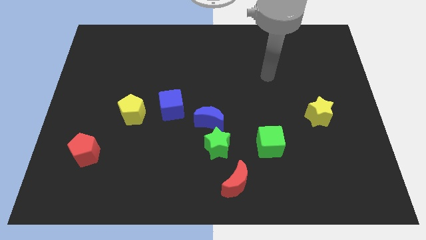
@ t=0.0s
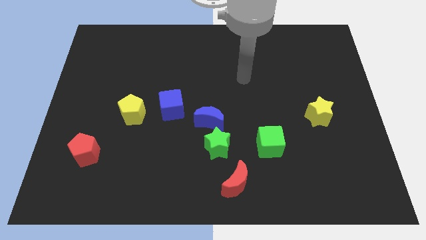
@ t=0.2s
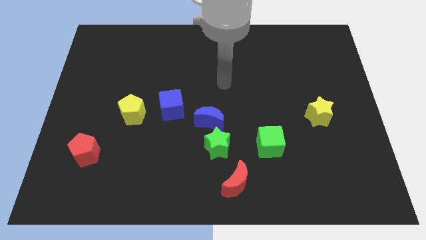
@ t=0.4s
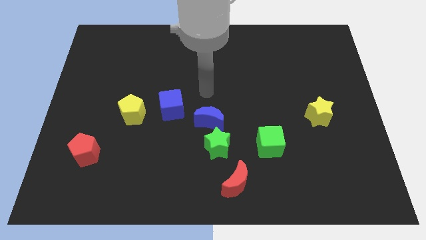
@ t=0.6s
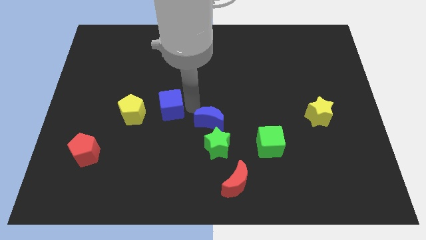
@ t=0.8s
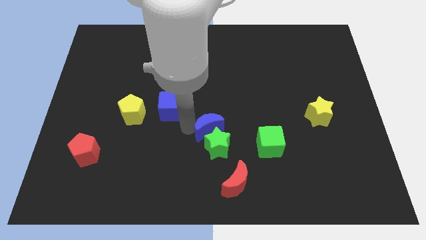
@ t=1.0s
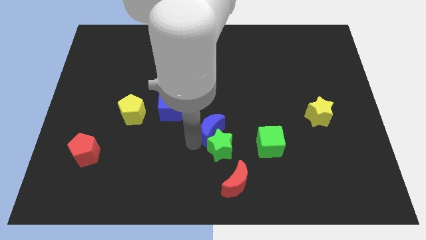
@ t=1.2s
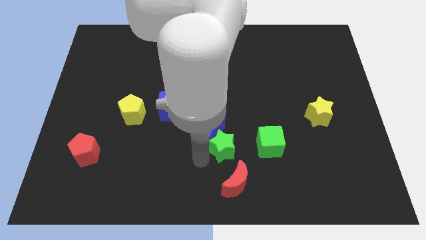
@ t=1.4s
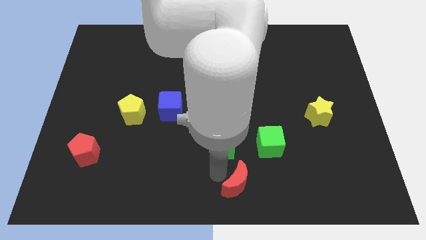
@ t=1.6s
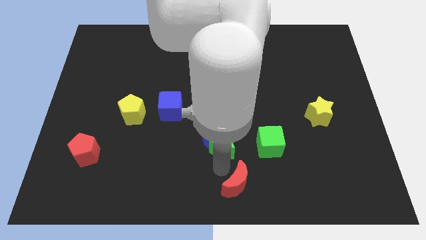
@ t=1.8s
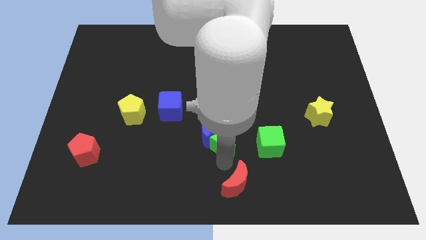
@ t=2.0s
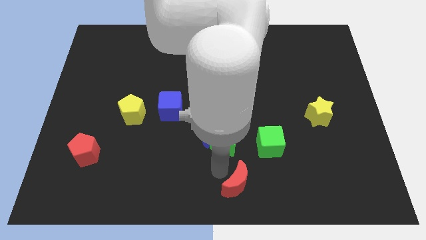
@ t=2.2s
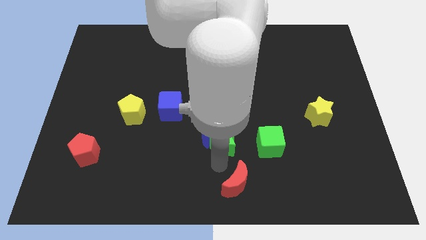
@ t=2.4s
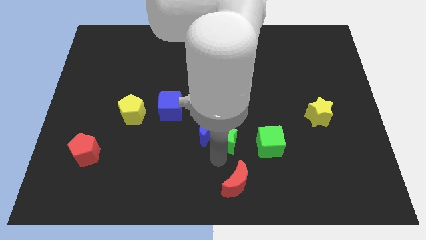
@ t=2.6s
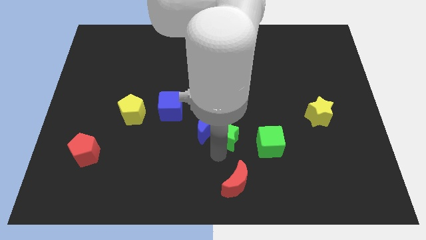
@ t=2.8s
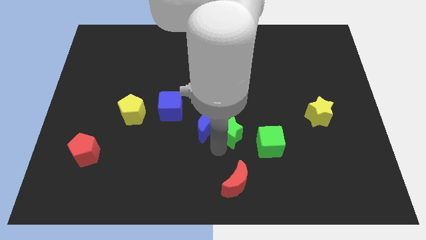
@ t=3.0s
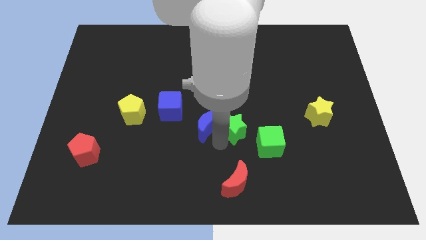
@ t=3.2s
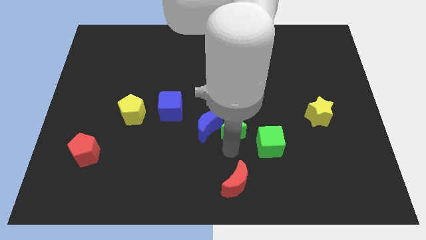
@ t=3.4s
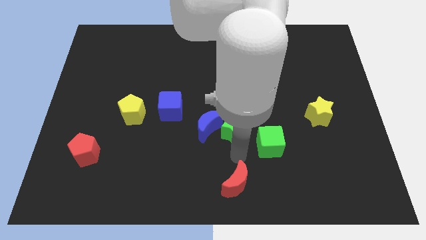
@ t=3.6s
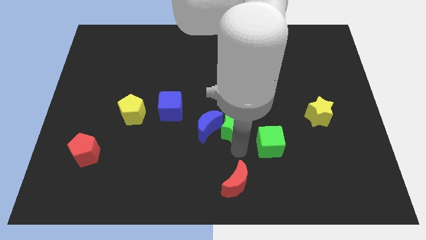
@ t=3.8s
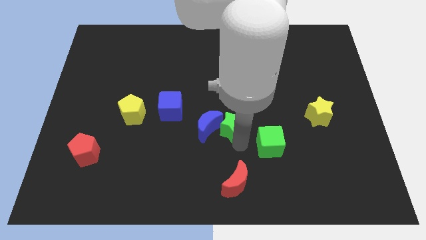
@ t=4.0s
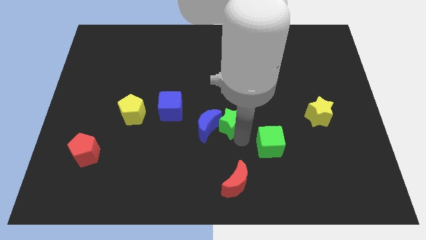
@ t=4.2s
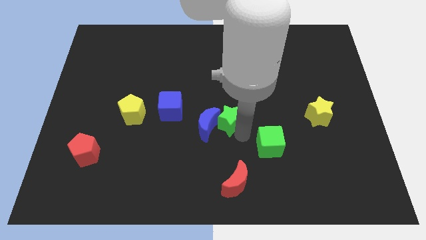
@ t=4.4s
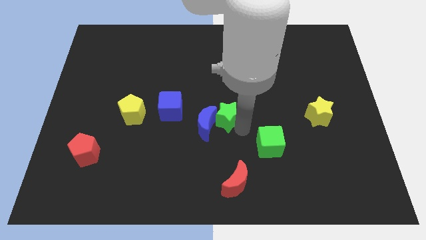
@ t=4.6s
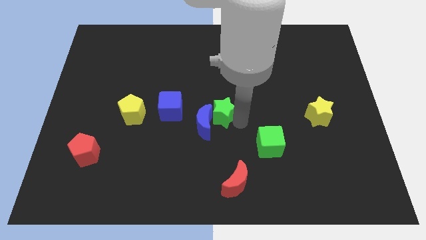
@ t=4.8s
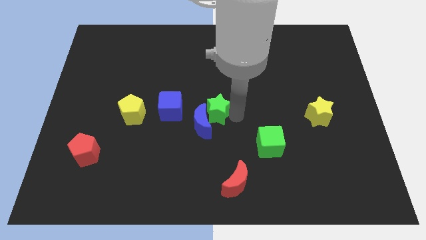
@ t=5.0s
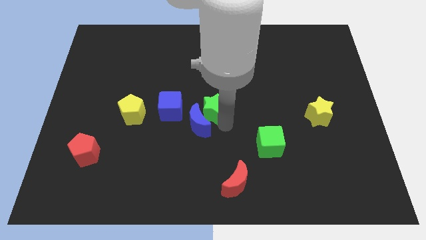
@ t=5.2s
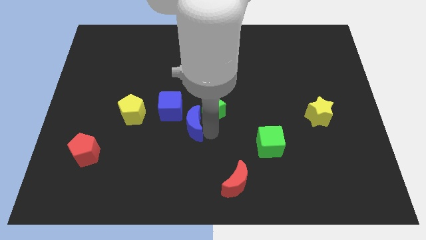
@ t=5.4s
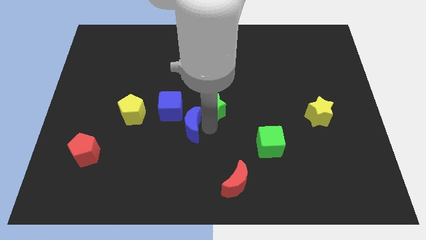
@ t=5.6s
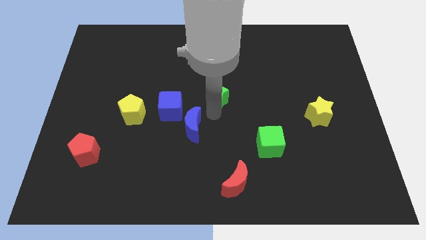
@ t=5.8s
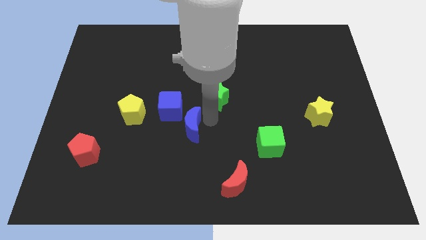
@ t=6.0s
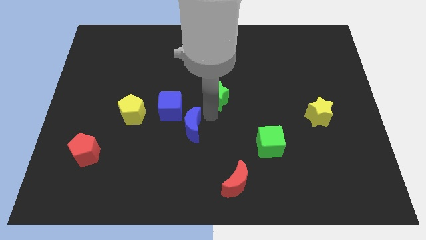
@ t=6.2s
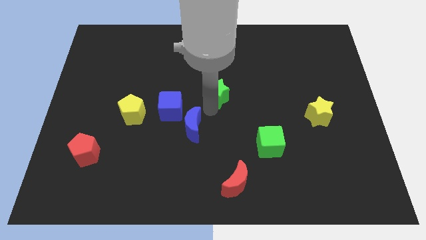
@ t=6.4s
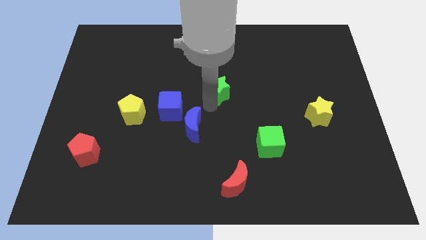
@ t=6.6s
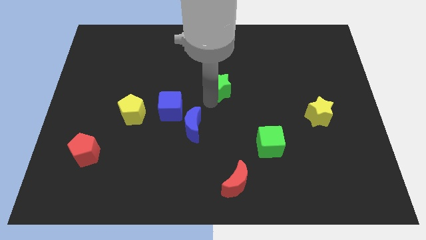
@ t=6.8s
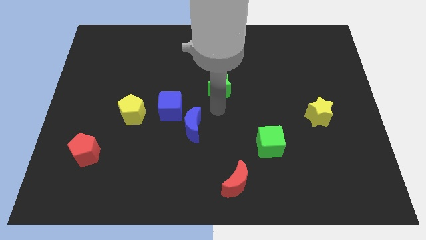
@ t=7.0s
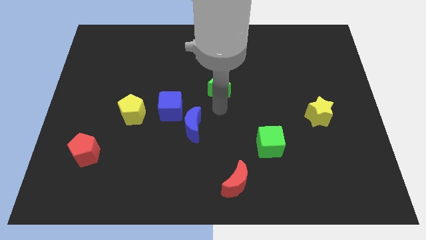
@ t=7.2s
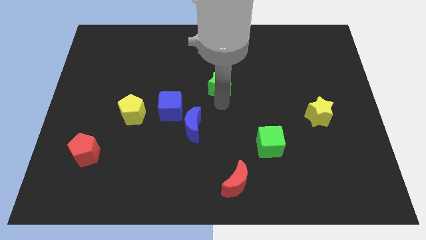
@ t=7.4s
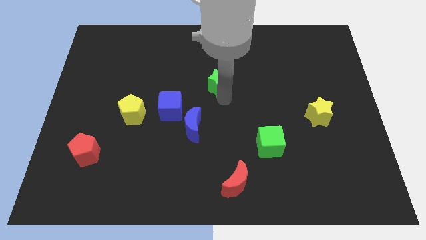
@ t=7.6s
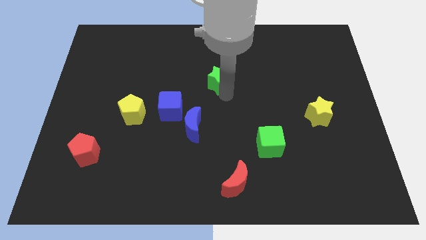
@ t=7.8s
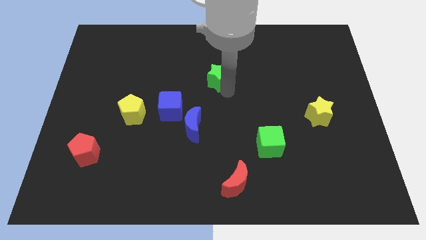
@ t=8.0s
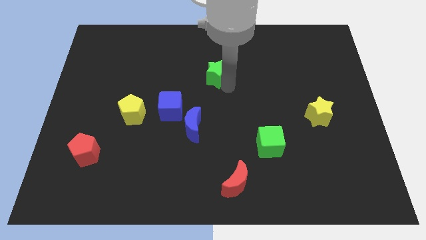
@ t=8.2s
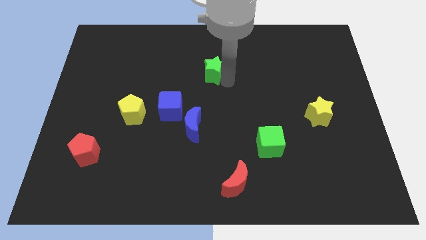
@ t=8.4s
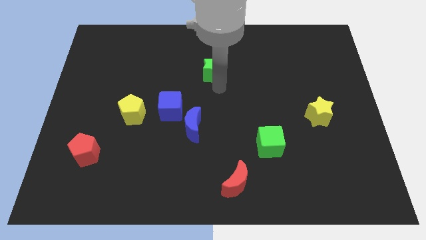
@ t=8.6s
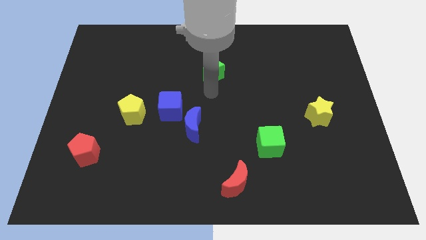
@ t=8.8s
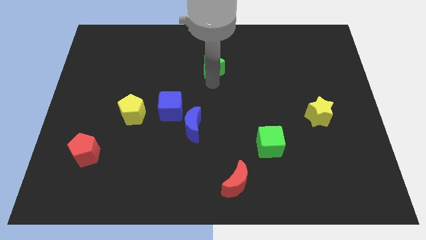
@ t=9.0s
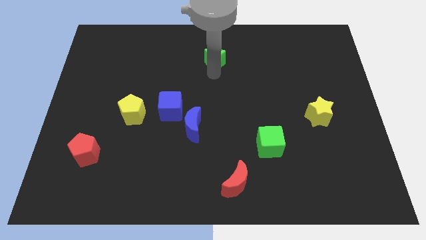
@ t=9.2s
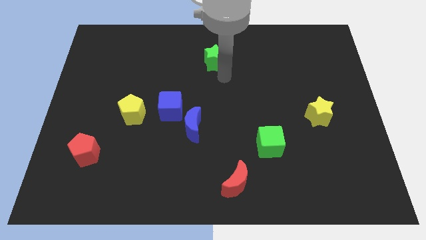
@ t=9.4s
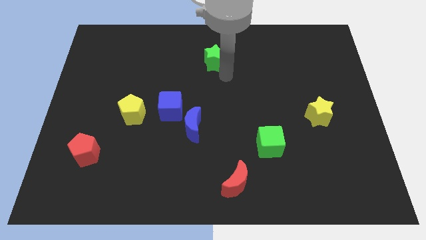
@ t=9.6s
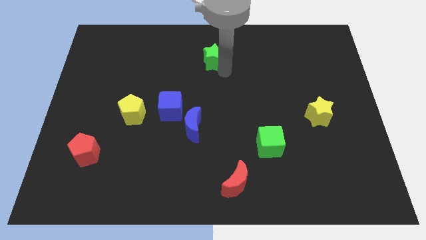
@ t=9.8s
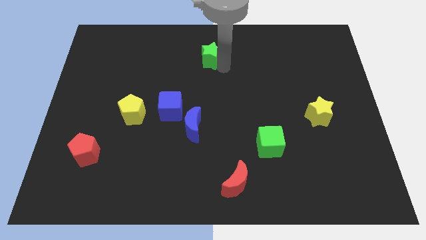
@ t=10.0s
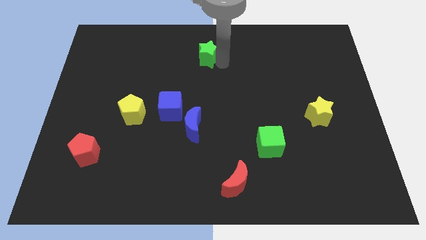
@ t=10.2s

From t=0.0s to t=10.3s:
put the green star to the towards your base

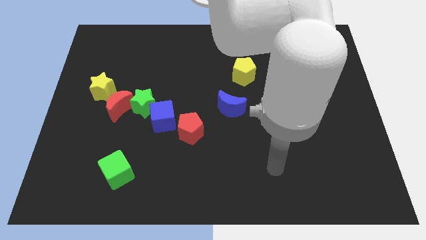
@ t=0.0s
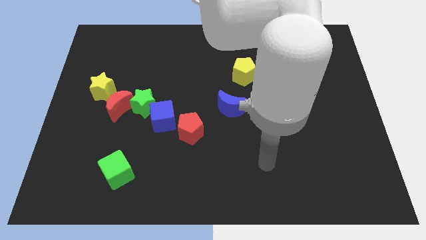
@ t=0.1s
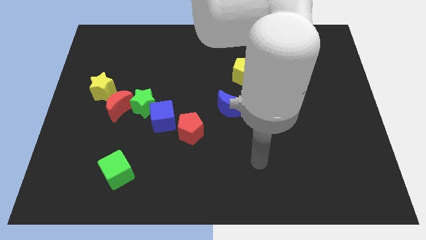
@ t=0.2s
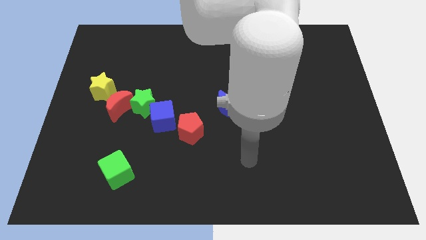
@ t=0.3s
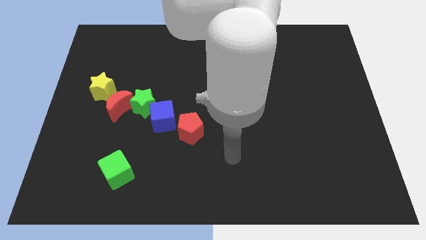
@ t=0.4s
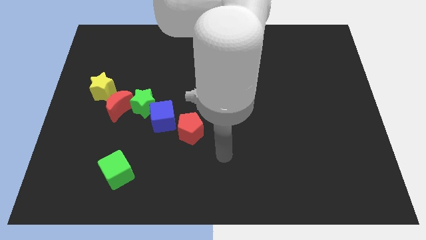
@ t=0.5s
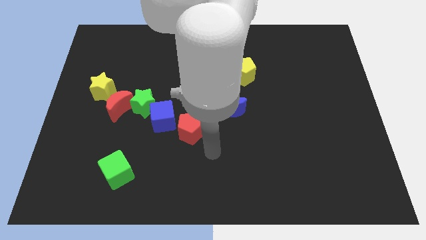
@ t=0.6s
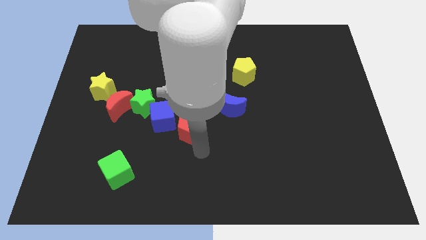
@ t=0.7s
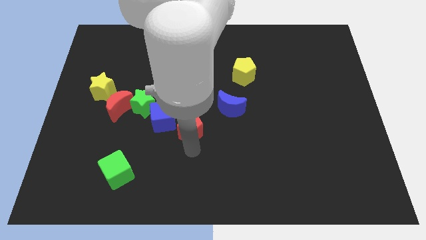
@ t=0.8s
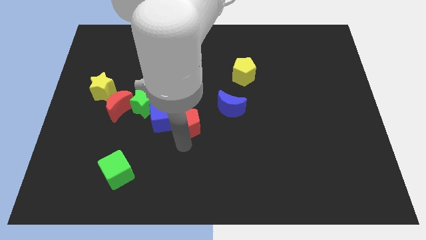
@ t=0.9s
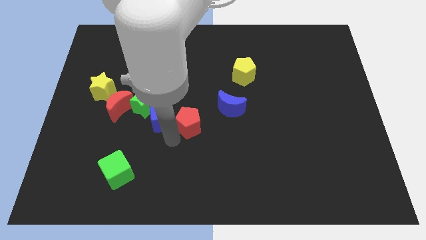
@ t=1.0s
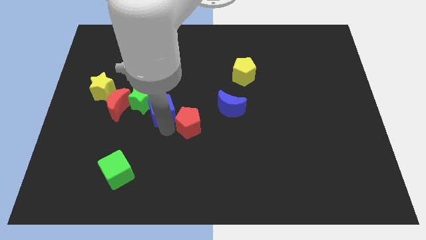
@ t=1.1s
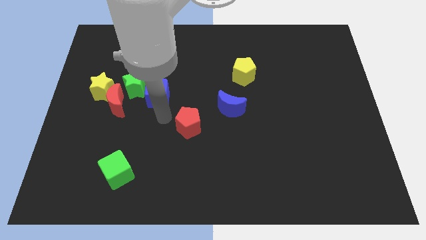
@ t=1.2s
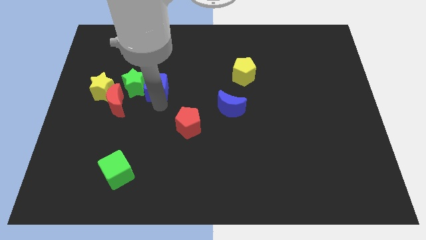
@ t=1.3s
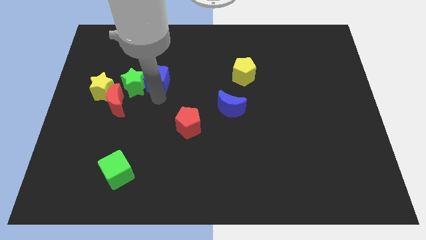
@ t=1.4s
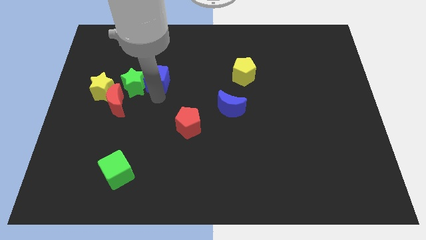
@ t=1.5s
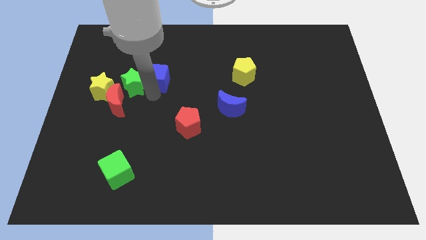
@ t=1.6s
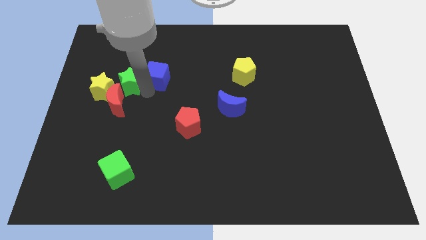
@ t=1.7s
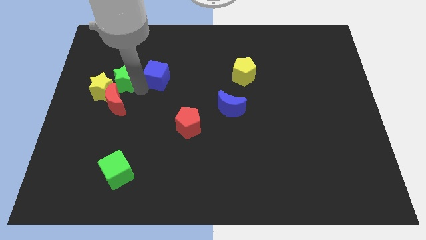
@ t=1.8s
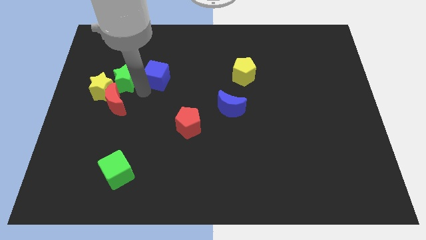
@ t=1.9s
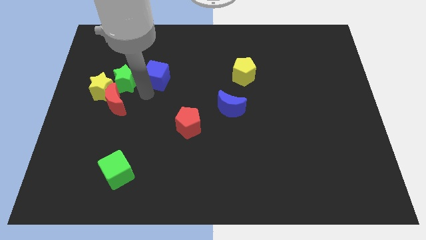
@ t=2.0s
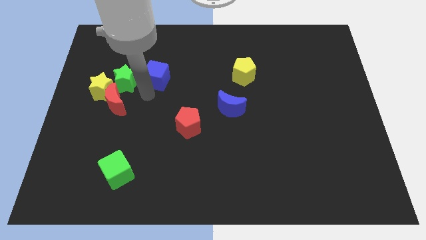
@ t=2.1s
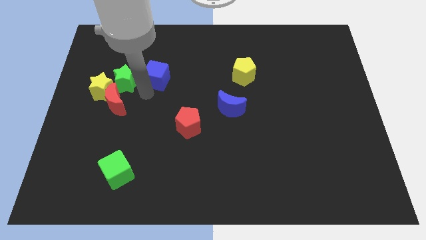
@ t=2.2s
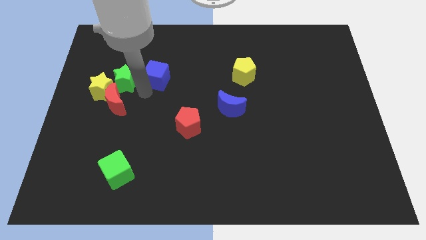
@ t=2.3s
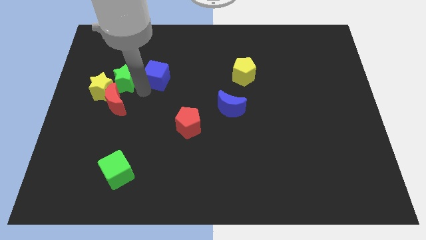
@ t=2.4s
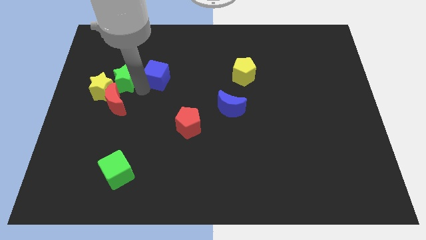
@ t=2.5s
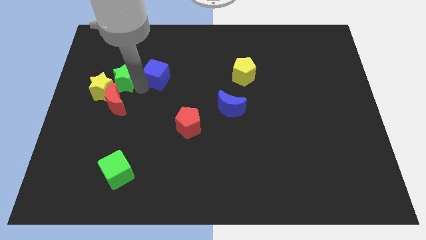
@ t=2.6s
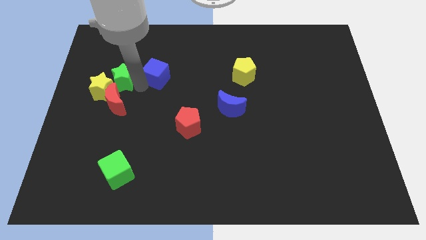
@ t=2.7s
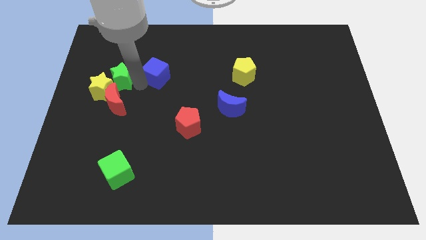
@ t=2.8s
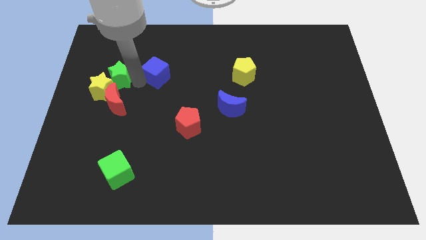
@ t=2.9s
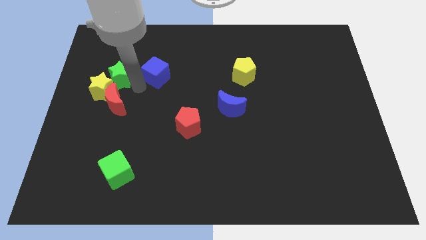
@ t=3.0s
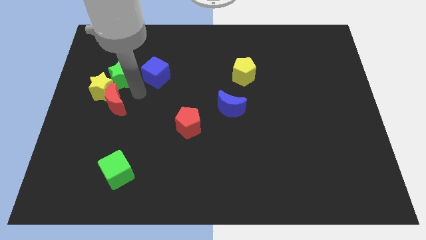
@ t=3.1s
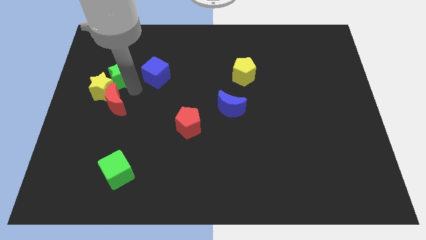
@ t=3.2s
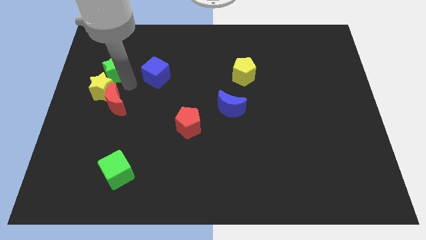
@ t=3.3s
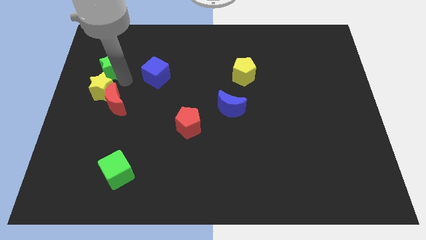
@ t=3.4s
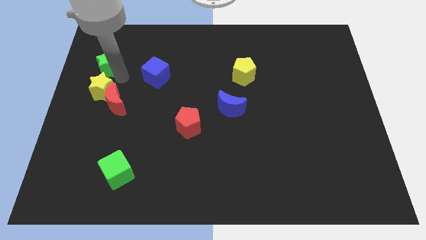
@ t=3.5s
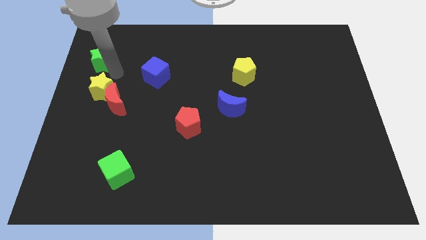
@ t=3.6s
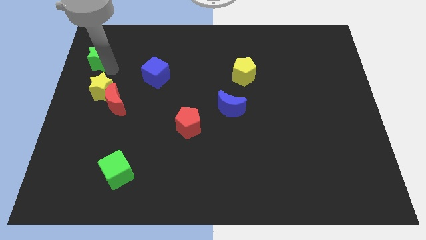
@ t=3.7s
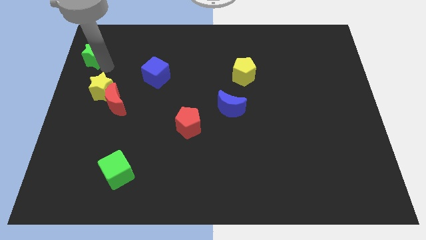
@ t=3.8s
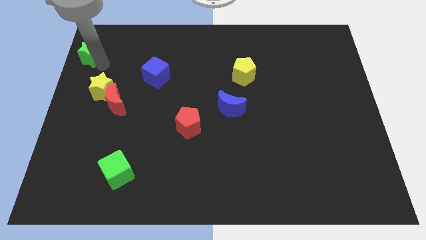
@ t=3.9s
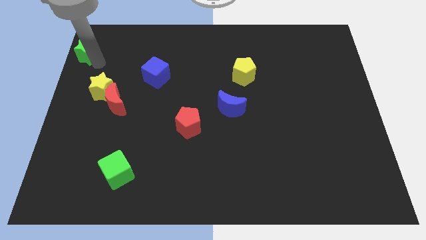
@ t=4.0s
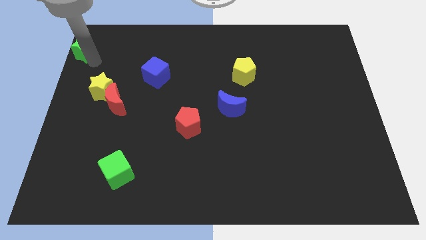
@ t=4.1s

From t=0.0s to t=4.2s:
put the green star to the top left corner
